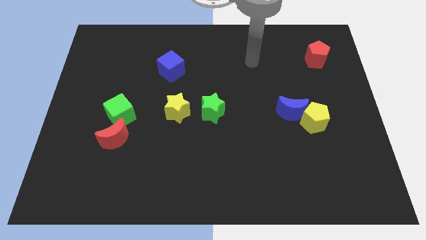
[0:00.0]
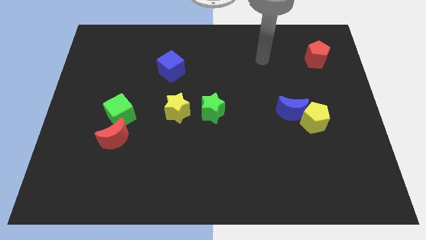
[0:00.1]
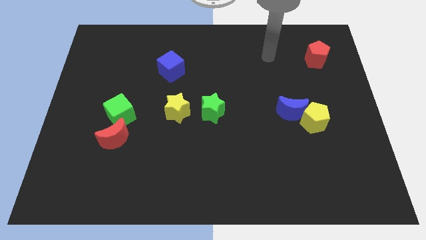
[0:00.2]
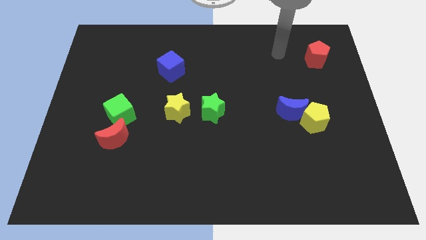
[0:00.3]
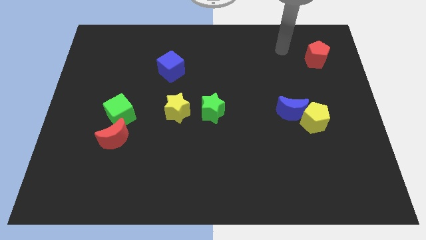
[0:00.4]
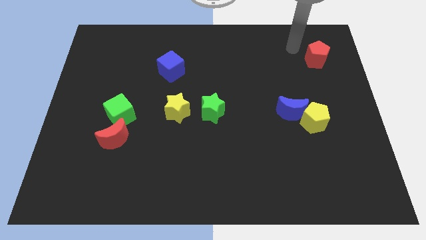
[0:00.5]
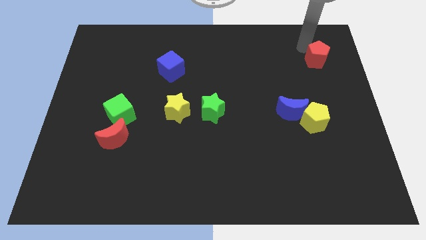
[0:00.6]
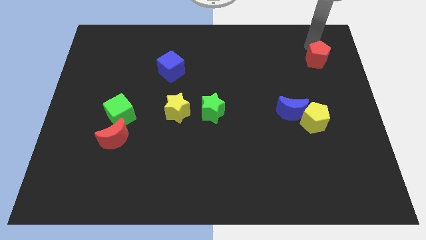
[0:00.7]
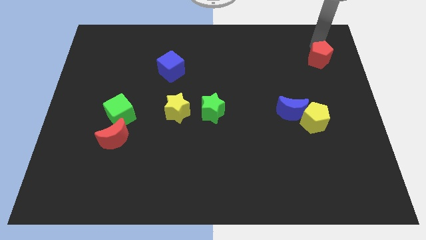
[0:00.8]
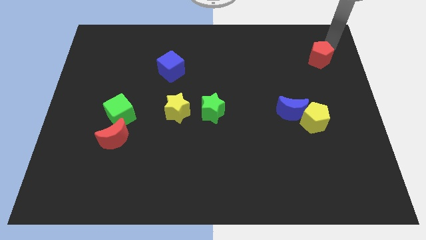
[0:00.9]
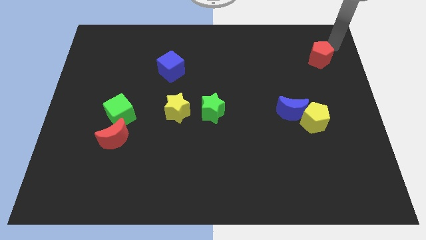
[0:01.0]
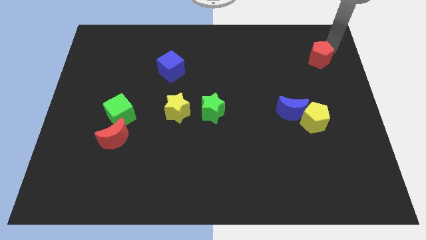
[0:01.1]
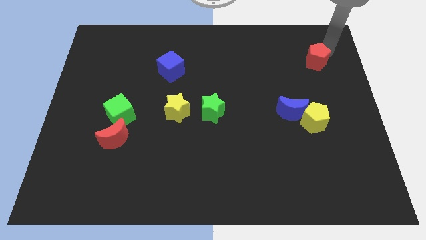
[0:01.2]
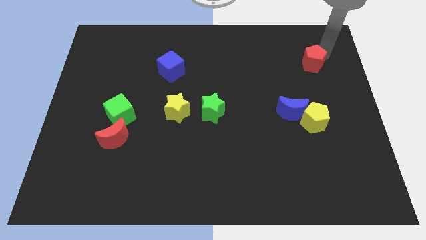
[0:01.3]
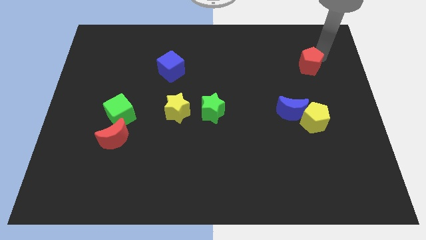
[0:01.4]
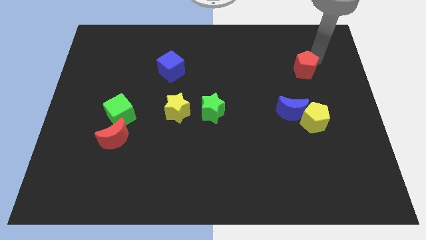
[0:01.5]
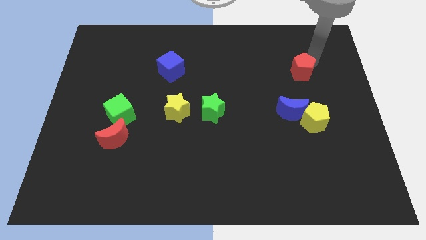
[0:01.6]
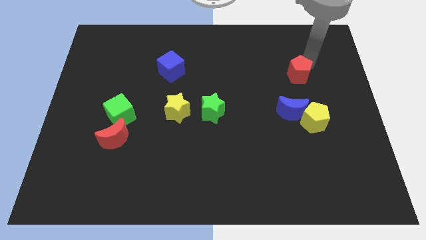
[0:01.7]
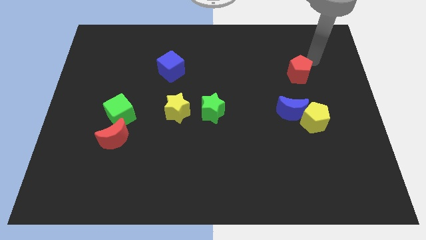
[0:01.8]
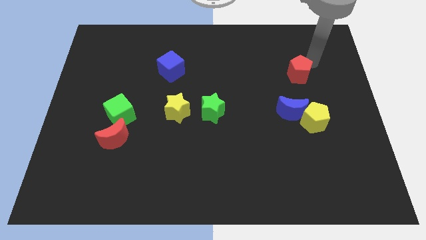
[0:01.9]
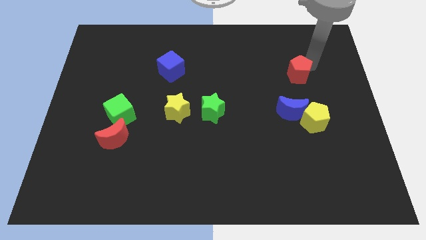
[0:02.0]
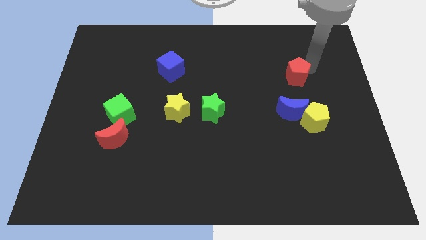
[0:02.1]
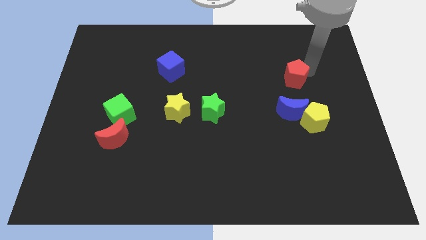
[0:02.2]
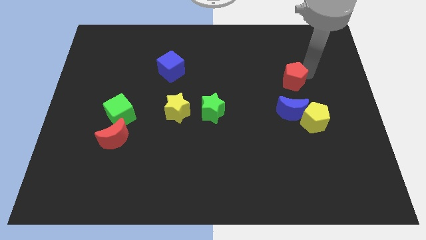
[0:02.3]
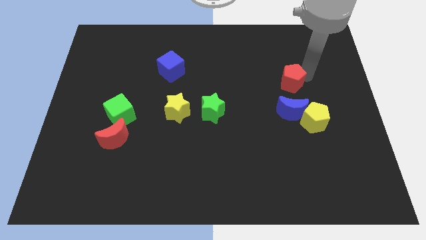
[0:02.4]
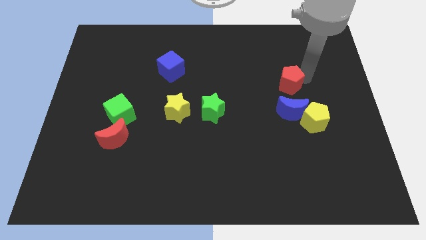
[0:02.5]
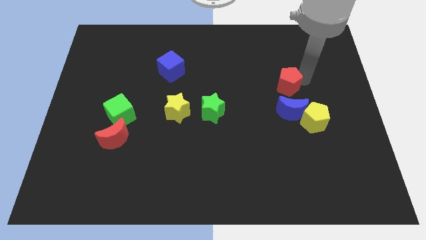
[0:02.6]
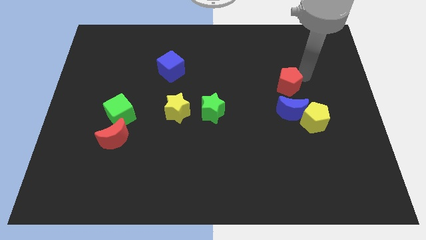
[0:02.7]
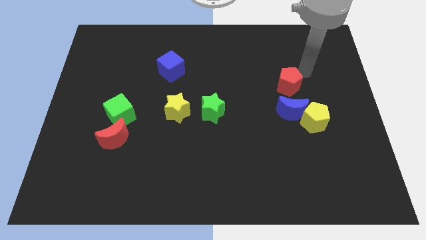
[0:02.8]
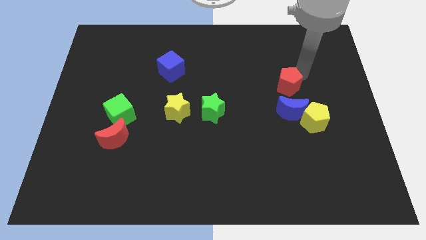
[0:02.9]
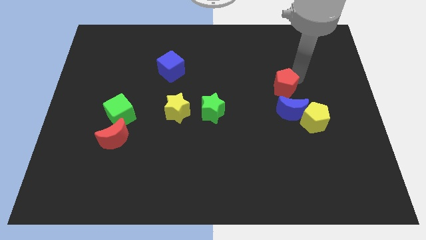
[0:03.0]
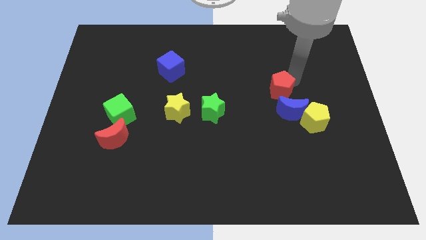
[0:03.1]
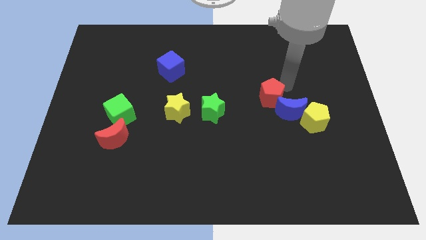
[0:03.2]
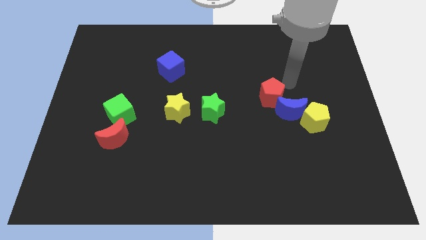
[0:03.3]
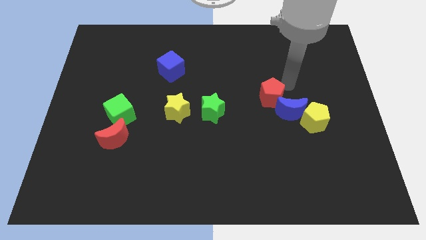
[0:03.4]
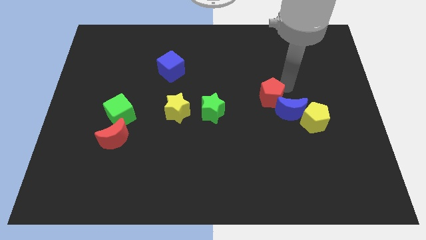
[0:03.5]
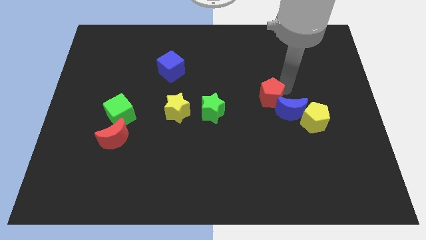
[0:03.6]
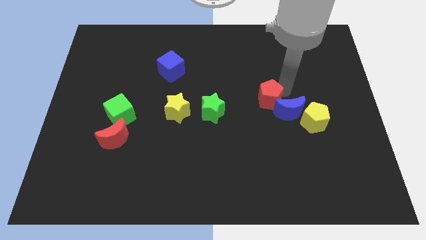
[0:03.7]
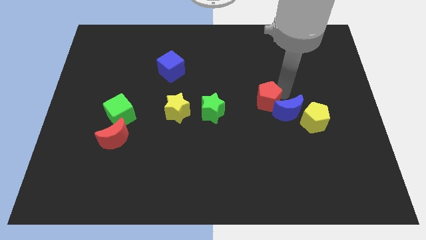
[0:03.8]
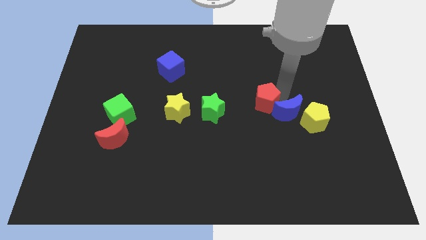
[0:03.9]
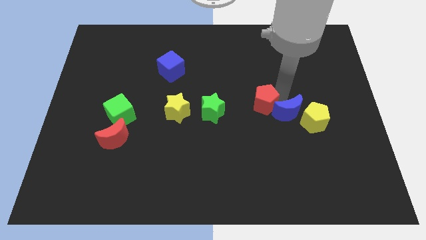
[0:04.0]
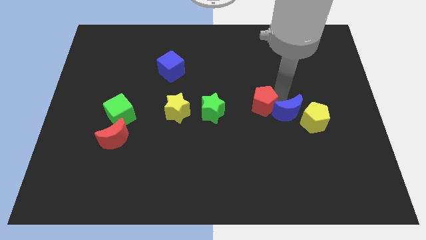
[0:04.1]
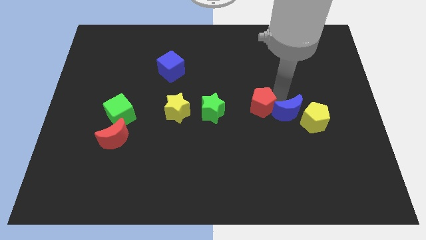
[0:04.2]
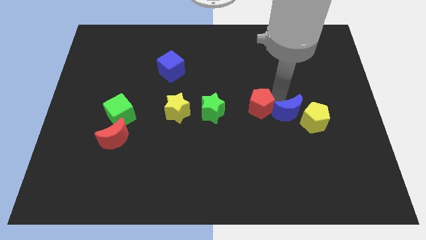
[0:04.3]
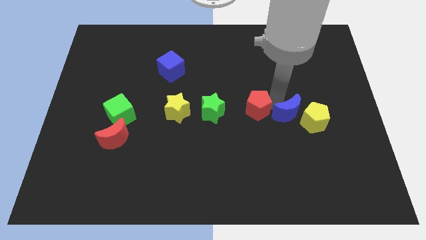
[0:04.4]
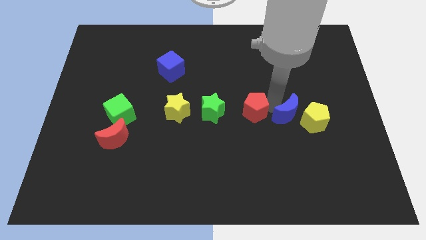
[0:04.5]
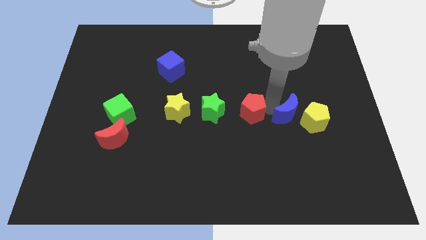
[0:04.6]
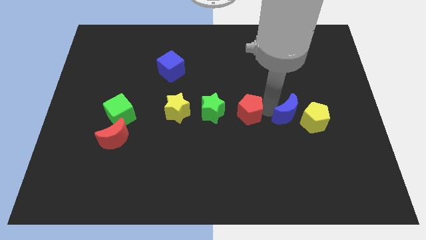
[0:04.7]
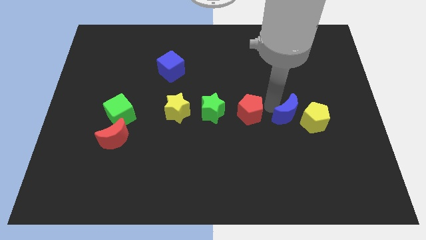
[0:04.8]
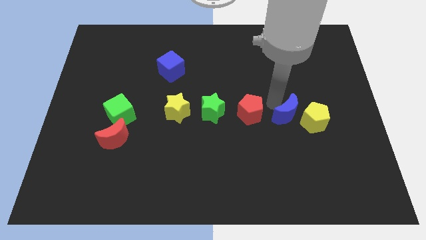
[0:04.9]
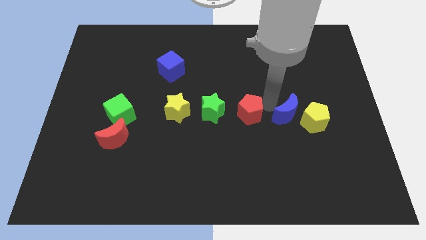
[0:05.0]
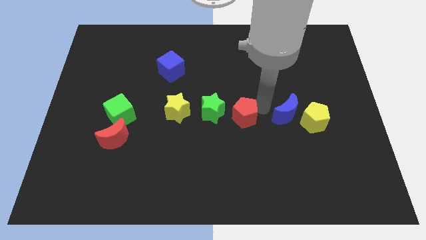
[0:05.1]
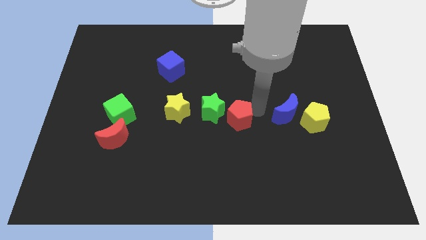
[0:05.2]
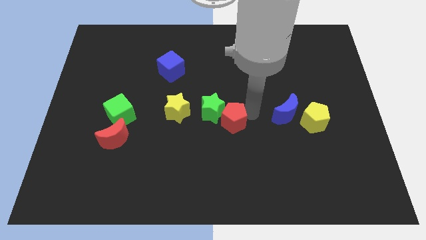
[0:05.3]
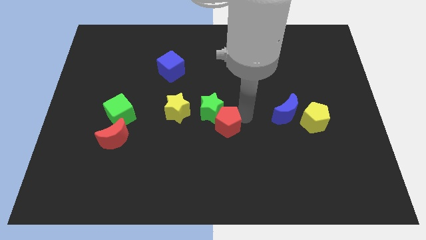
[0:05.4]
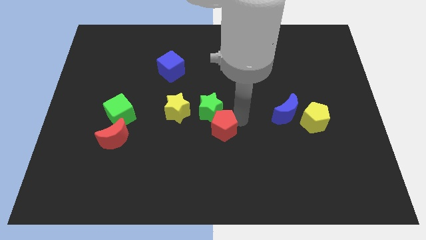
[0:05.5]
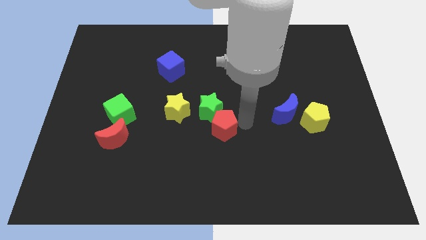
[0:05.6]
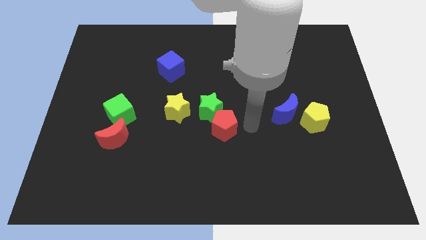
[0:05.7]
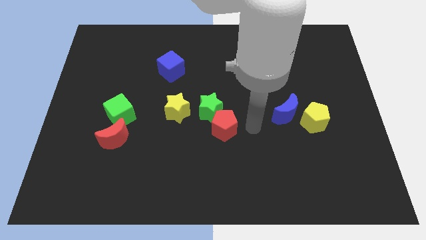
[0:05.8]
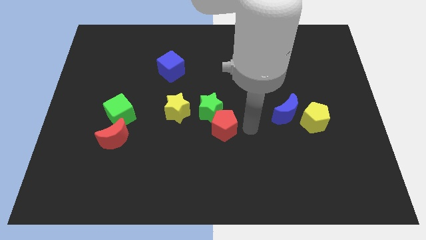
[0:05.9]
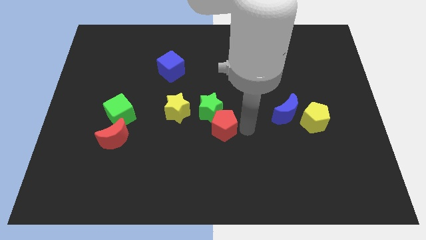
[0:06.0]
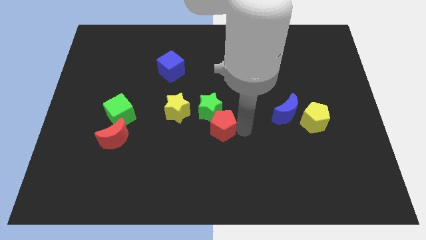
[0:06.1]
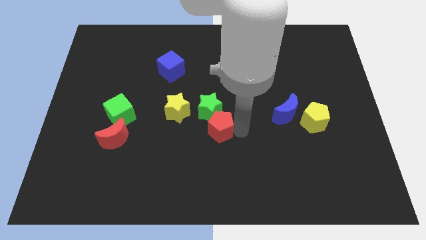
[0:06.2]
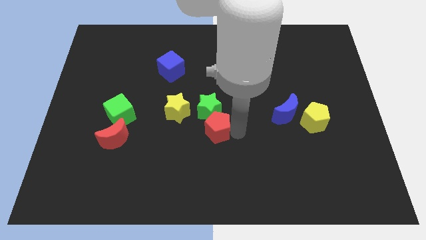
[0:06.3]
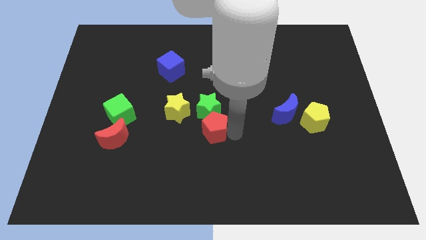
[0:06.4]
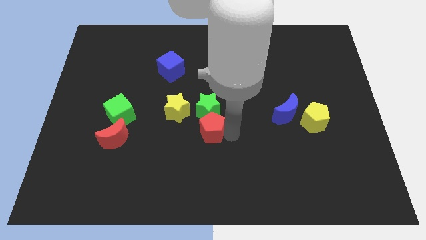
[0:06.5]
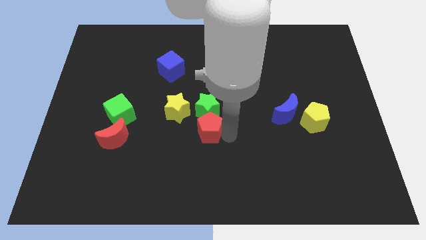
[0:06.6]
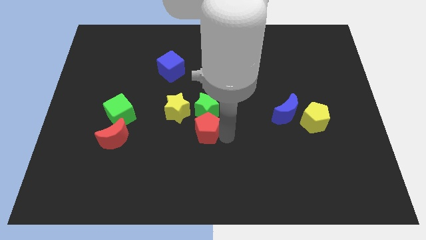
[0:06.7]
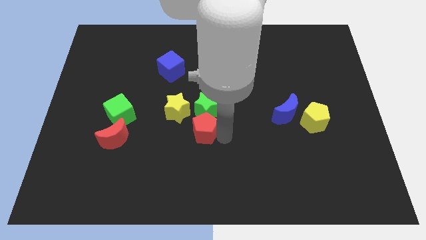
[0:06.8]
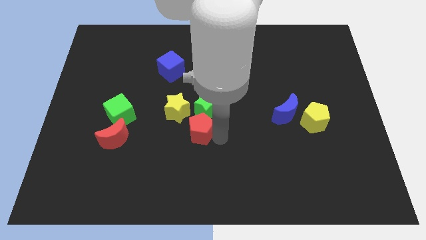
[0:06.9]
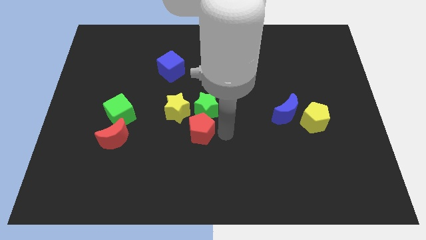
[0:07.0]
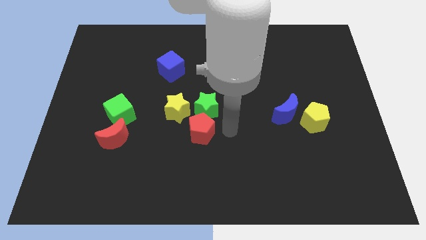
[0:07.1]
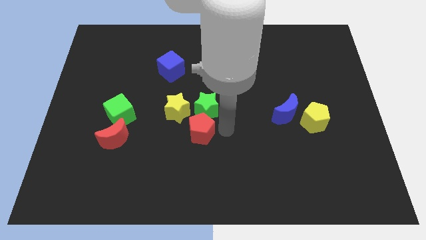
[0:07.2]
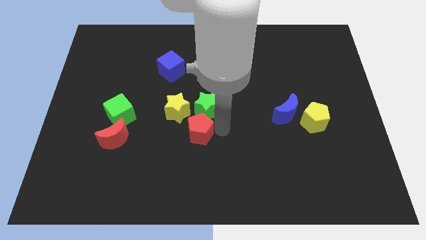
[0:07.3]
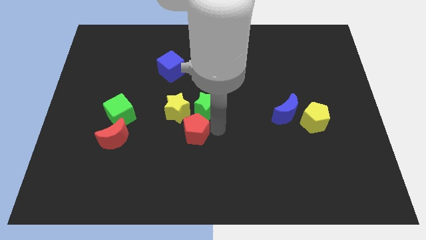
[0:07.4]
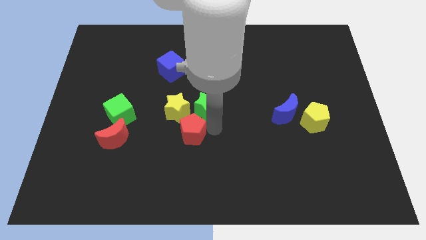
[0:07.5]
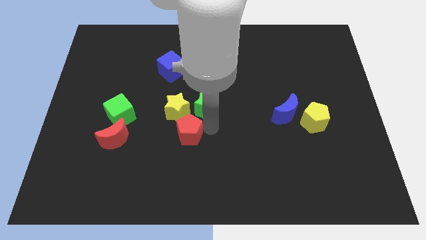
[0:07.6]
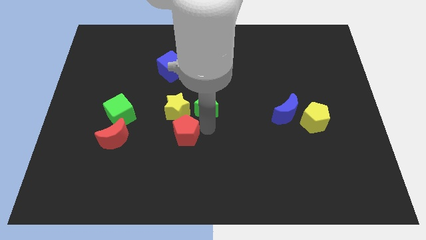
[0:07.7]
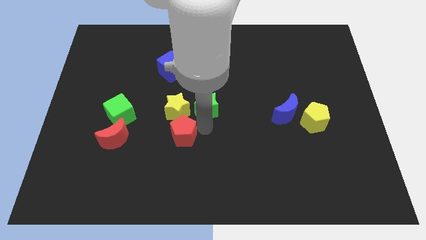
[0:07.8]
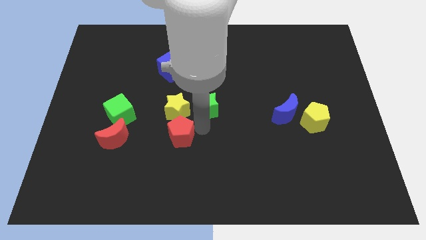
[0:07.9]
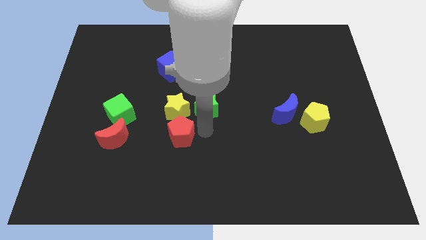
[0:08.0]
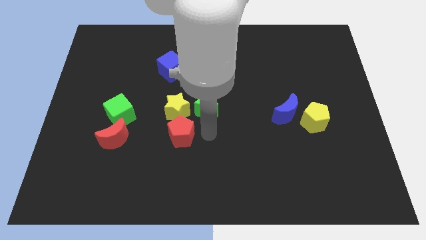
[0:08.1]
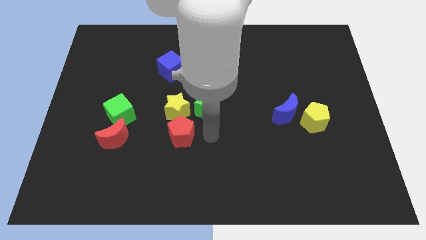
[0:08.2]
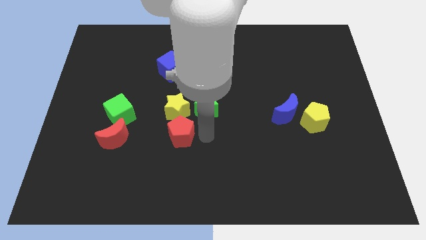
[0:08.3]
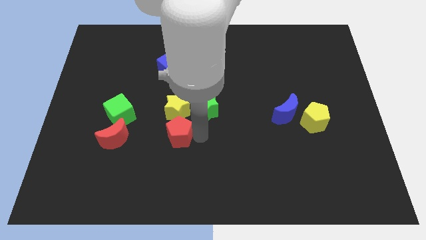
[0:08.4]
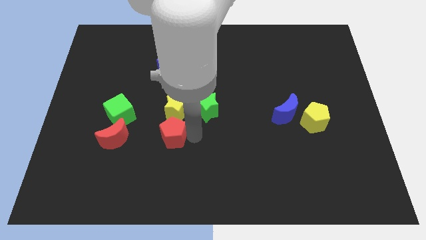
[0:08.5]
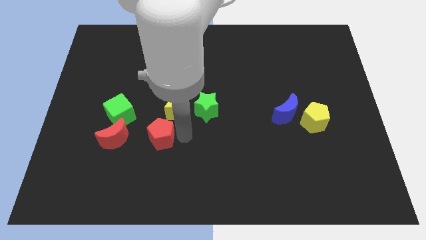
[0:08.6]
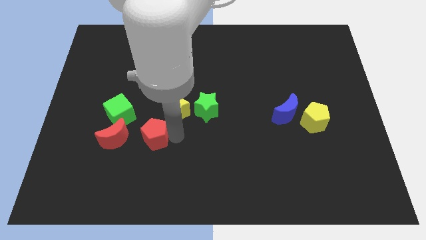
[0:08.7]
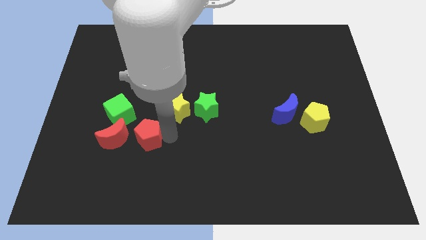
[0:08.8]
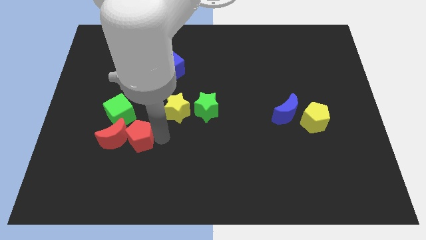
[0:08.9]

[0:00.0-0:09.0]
slide the red pentagon to the red moon
